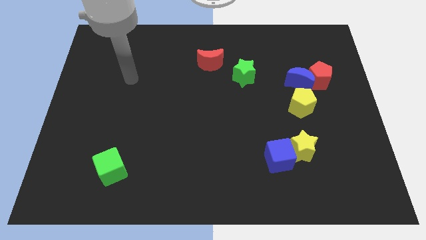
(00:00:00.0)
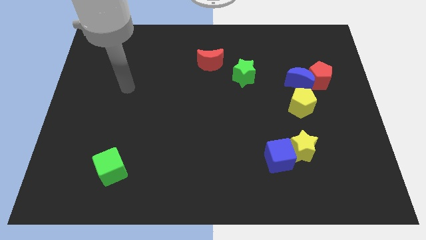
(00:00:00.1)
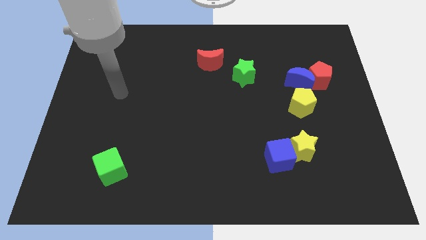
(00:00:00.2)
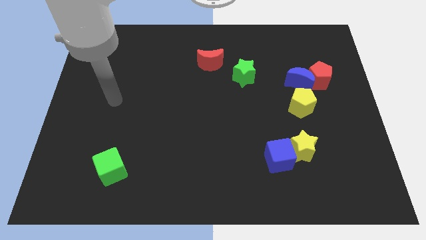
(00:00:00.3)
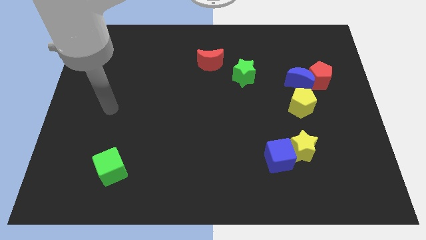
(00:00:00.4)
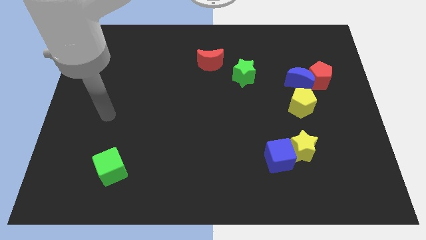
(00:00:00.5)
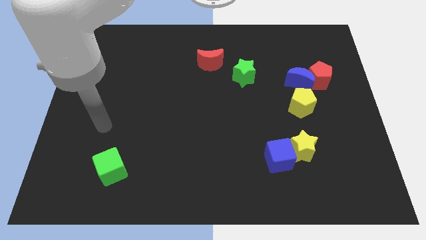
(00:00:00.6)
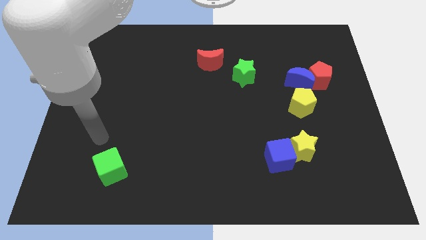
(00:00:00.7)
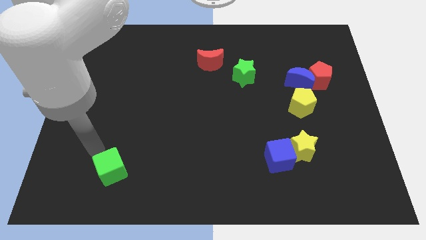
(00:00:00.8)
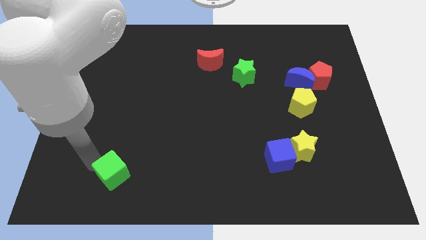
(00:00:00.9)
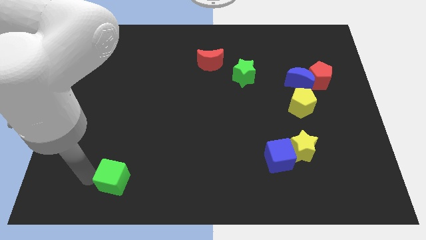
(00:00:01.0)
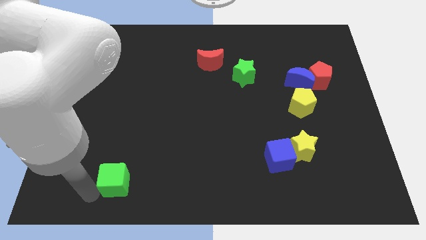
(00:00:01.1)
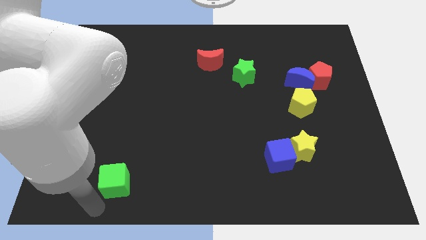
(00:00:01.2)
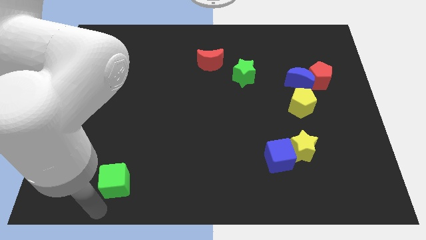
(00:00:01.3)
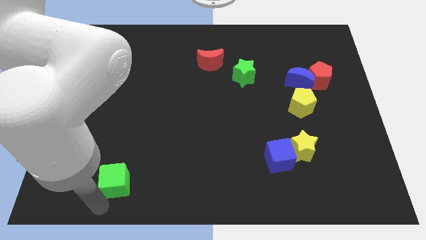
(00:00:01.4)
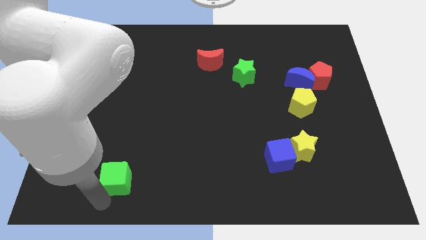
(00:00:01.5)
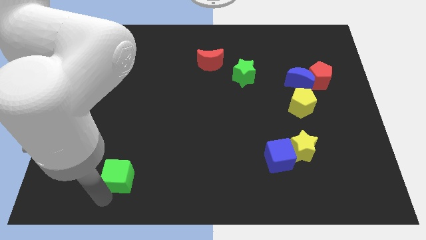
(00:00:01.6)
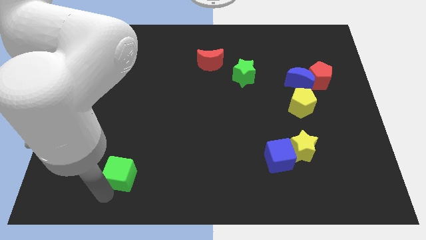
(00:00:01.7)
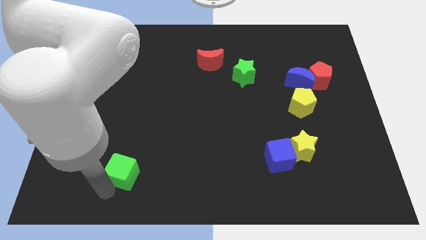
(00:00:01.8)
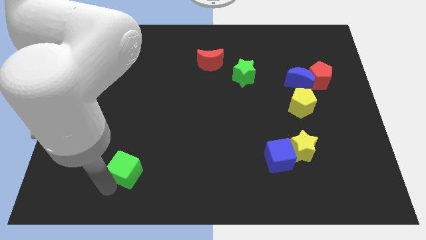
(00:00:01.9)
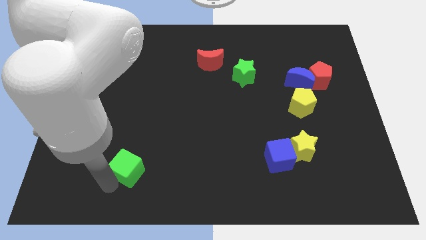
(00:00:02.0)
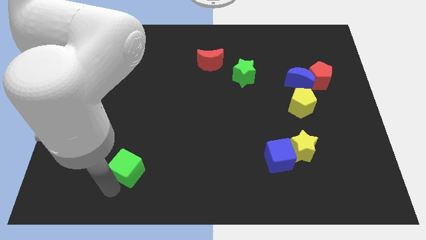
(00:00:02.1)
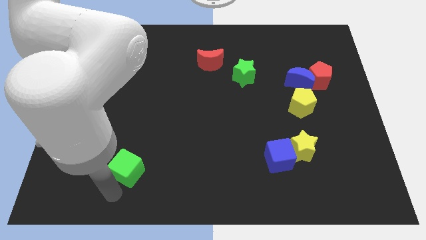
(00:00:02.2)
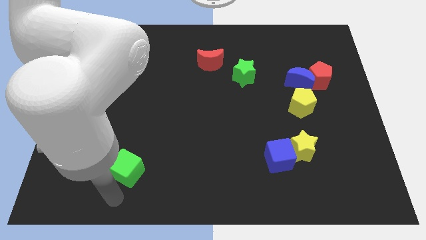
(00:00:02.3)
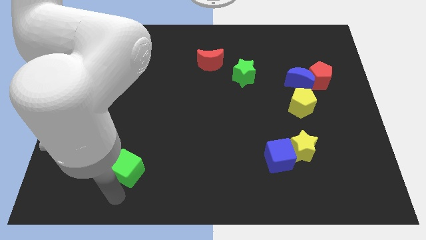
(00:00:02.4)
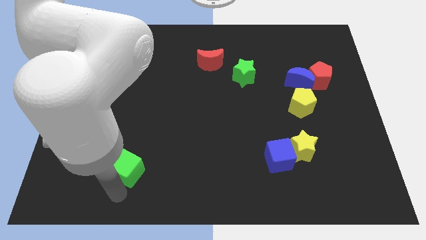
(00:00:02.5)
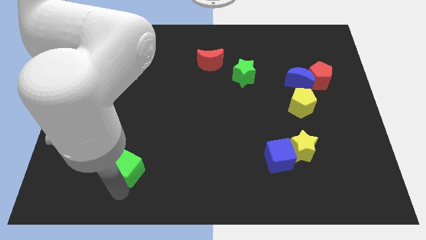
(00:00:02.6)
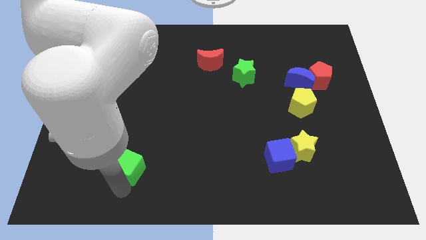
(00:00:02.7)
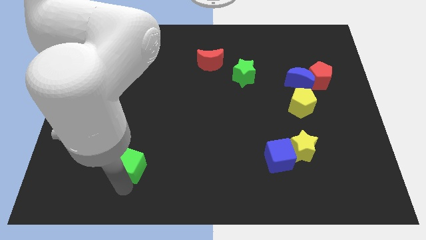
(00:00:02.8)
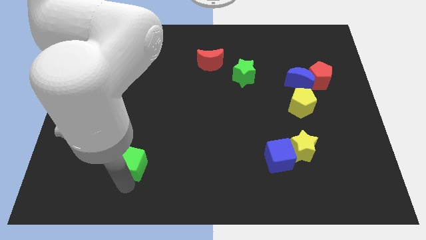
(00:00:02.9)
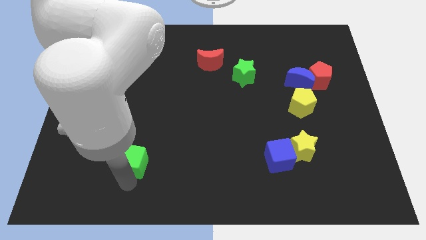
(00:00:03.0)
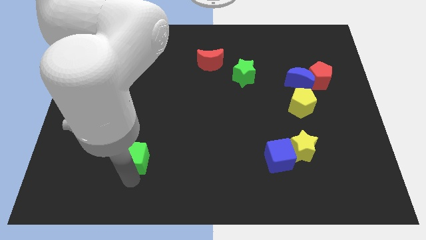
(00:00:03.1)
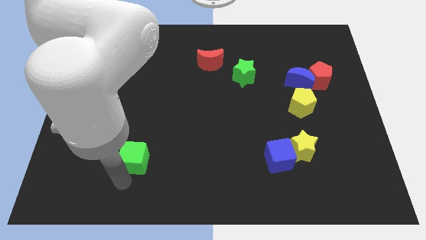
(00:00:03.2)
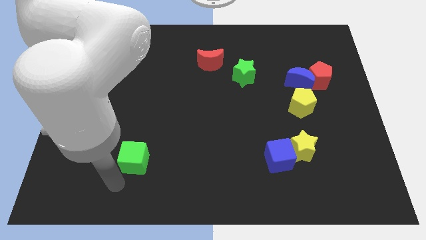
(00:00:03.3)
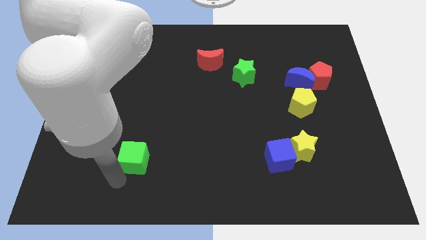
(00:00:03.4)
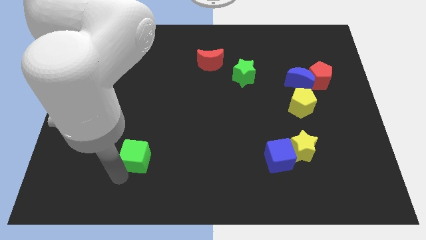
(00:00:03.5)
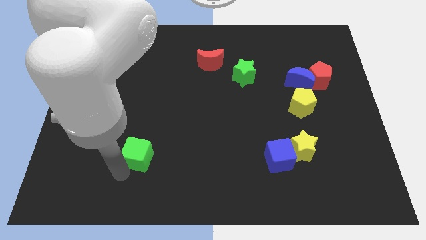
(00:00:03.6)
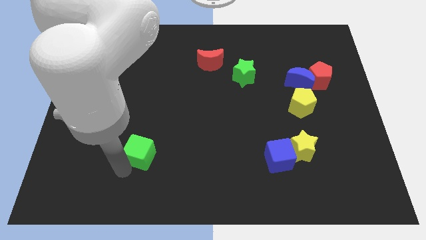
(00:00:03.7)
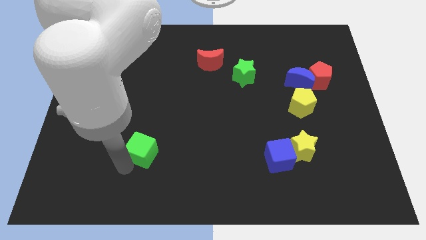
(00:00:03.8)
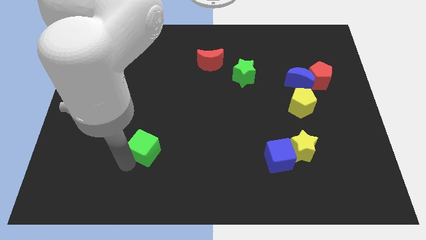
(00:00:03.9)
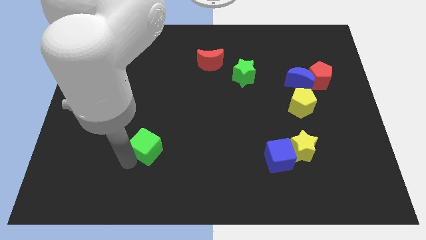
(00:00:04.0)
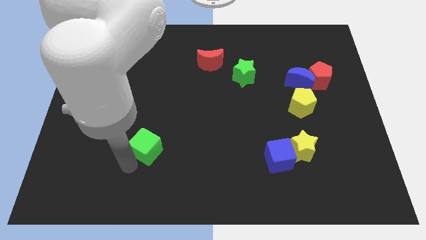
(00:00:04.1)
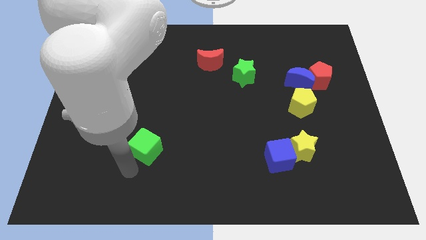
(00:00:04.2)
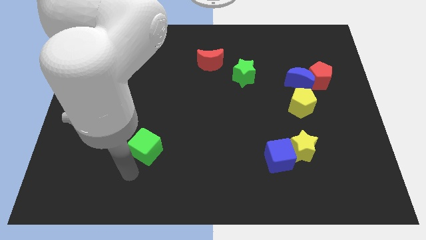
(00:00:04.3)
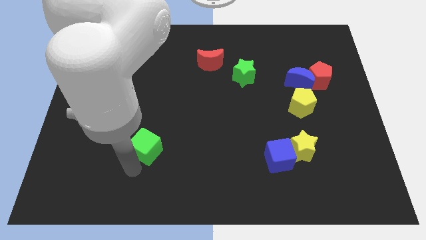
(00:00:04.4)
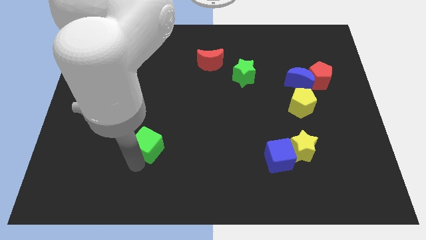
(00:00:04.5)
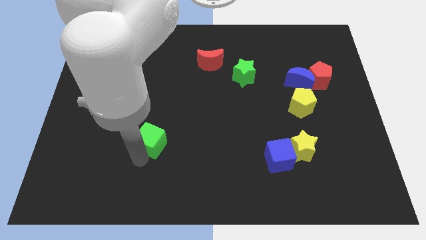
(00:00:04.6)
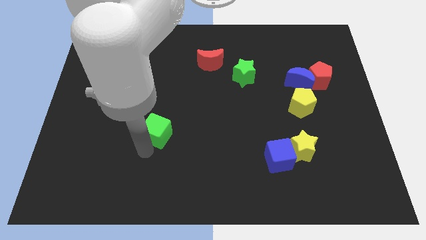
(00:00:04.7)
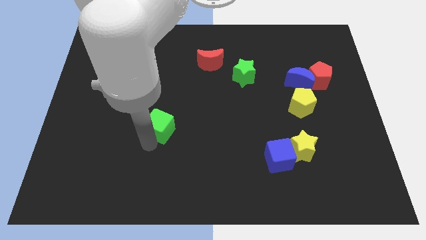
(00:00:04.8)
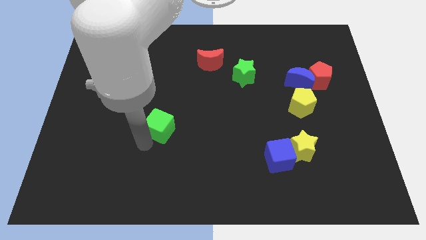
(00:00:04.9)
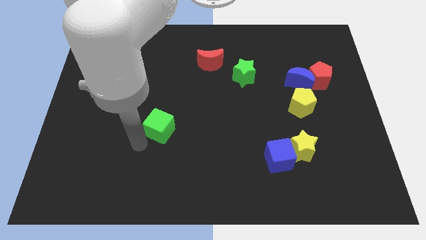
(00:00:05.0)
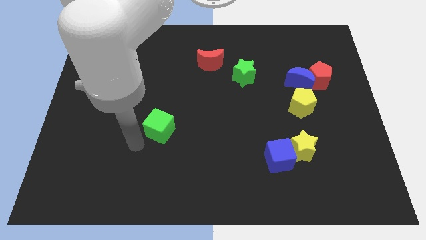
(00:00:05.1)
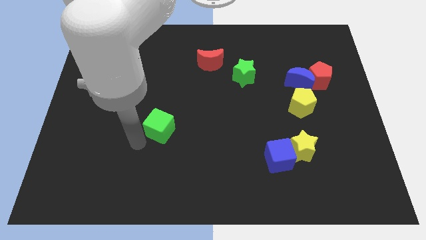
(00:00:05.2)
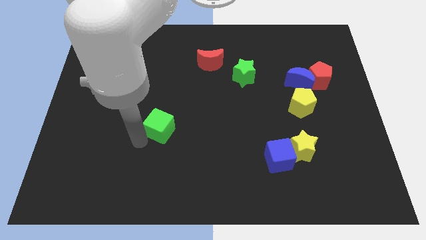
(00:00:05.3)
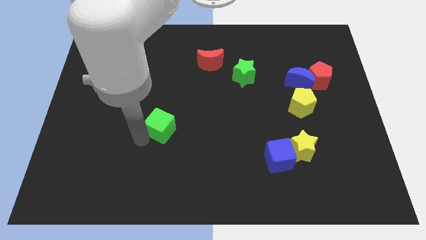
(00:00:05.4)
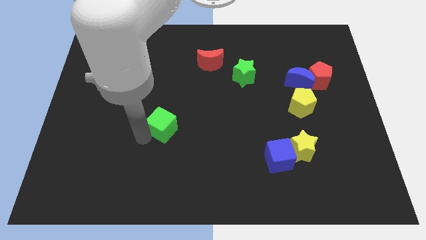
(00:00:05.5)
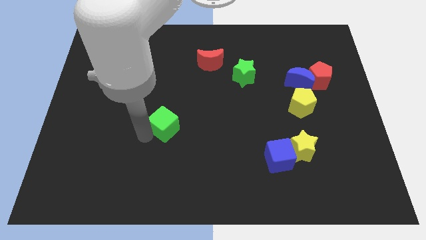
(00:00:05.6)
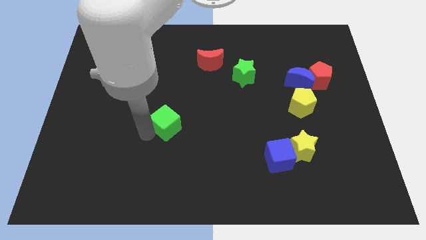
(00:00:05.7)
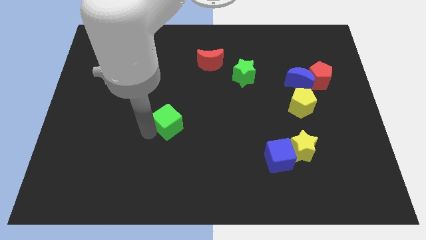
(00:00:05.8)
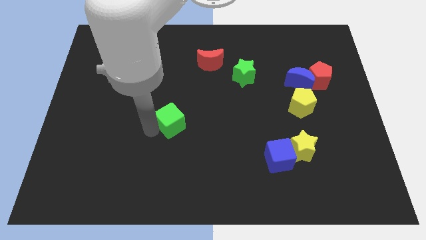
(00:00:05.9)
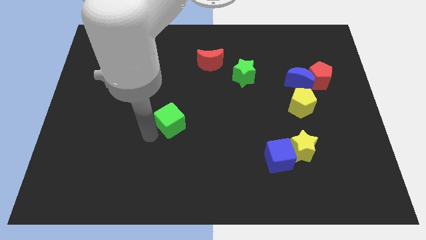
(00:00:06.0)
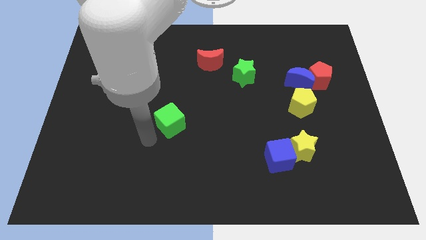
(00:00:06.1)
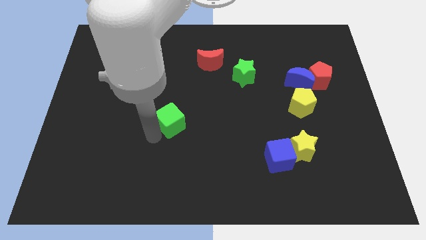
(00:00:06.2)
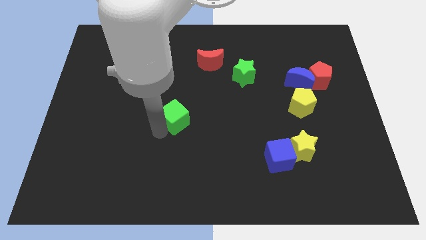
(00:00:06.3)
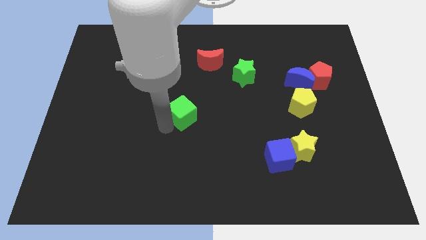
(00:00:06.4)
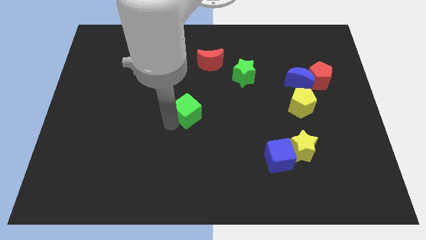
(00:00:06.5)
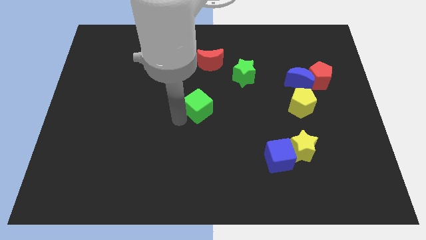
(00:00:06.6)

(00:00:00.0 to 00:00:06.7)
slide the green cube below the red moon
